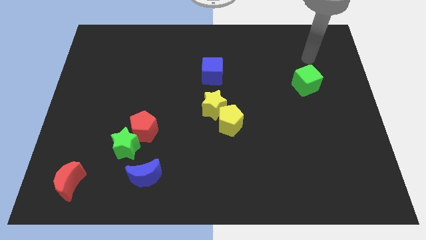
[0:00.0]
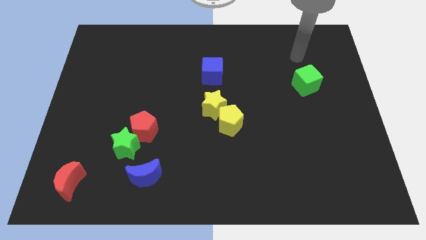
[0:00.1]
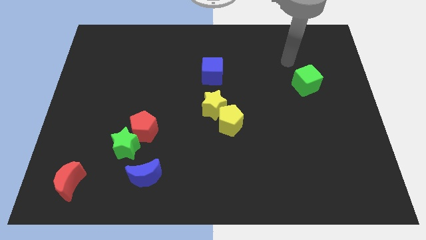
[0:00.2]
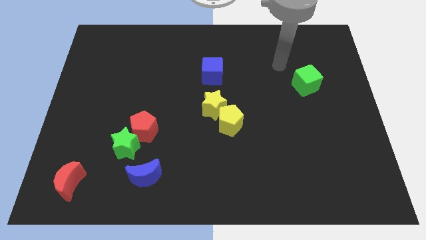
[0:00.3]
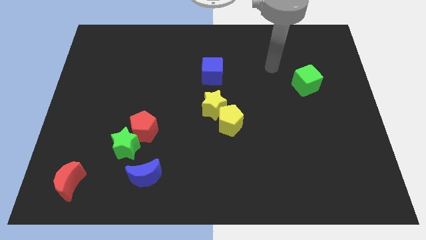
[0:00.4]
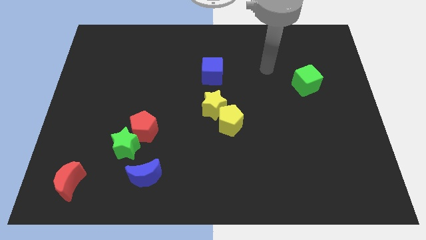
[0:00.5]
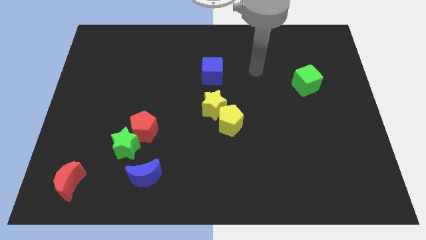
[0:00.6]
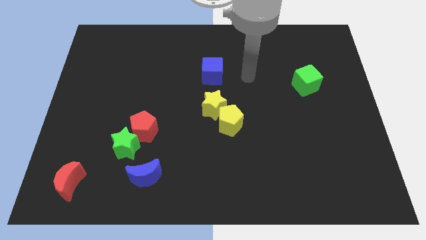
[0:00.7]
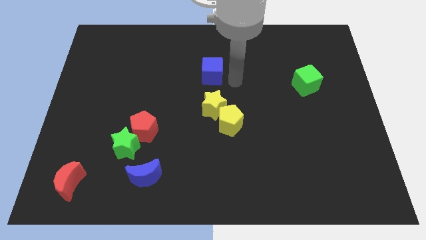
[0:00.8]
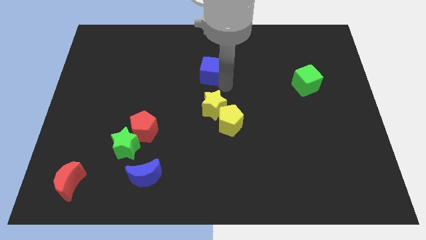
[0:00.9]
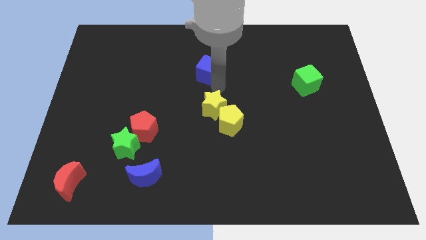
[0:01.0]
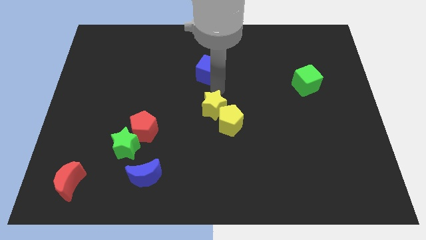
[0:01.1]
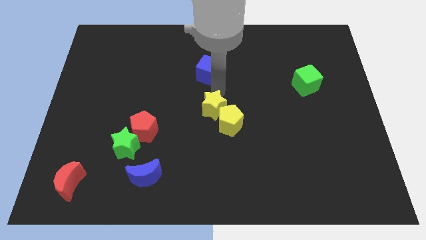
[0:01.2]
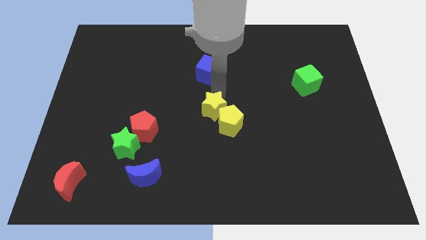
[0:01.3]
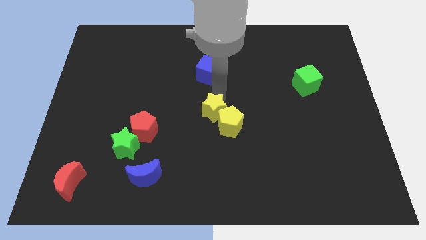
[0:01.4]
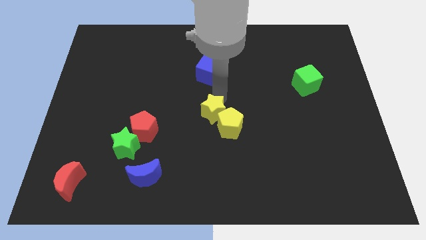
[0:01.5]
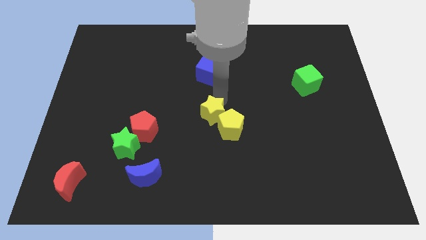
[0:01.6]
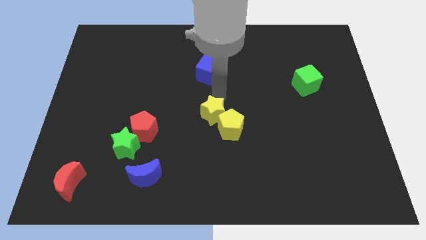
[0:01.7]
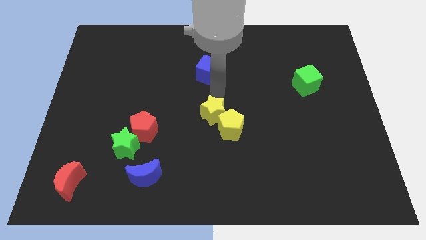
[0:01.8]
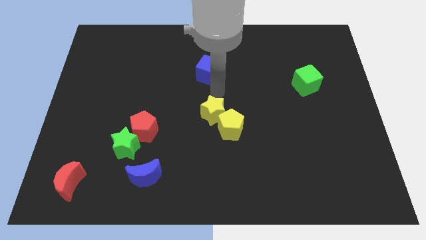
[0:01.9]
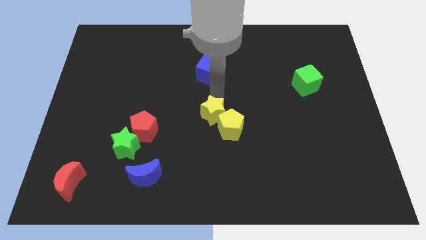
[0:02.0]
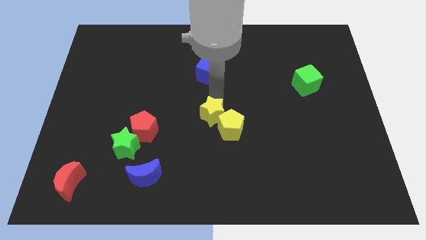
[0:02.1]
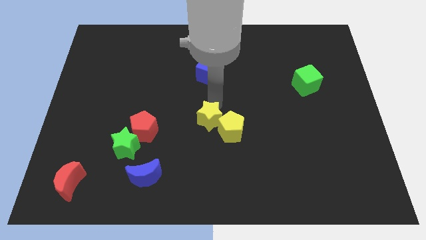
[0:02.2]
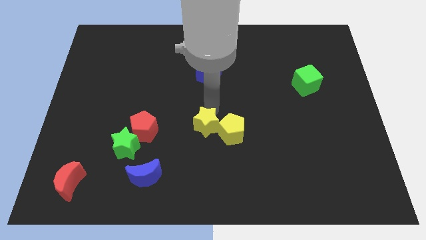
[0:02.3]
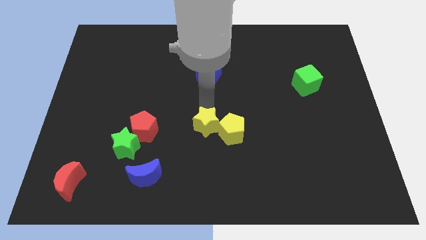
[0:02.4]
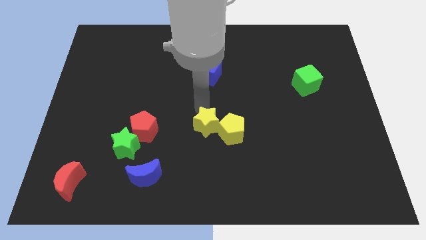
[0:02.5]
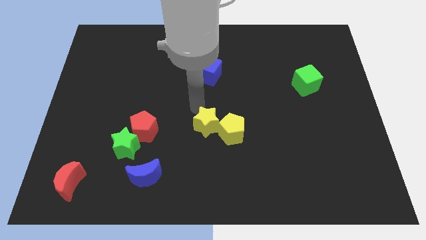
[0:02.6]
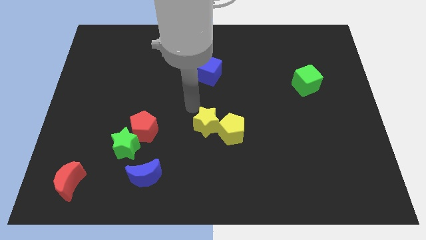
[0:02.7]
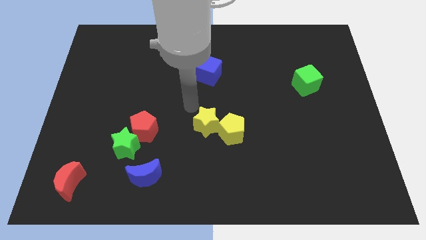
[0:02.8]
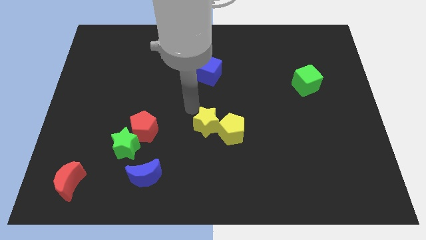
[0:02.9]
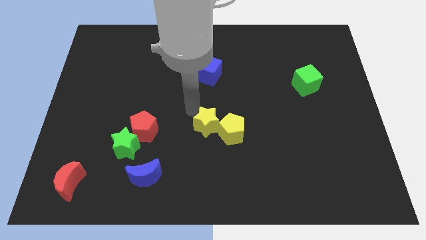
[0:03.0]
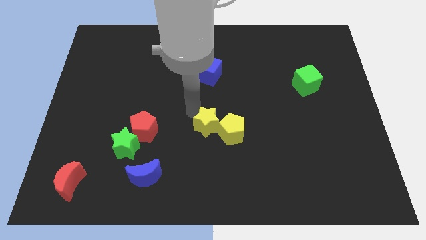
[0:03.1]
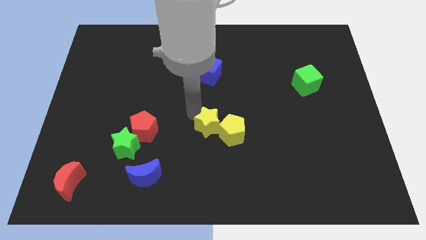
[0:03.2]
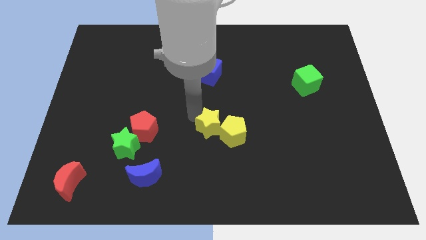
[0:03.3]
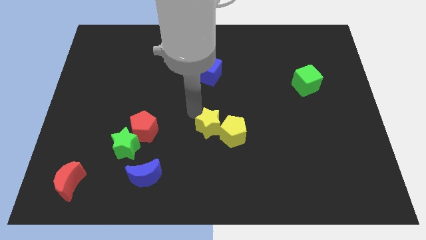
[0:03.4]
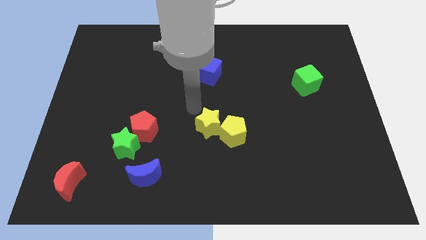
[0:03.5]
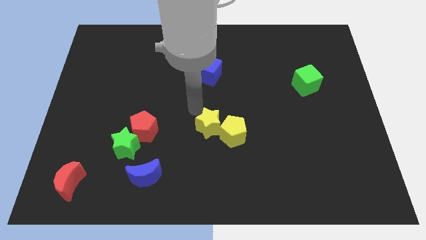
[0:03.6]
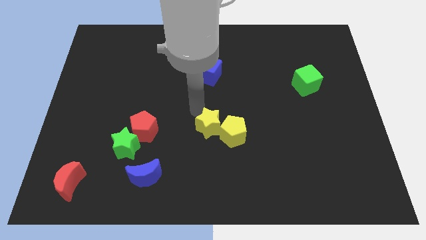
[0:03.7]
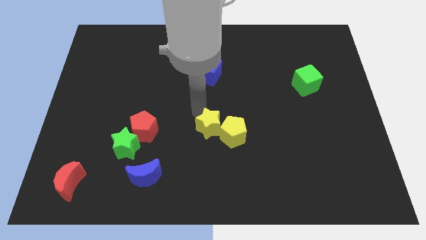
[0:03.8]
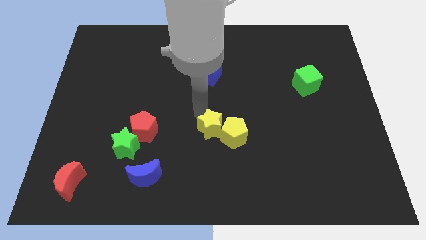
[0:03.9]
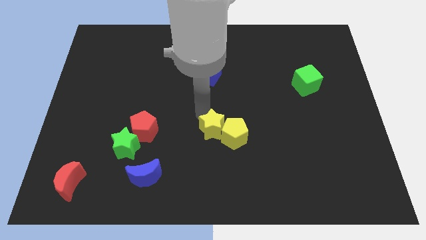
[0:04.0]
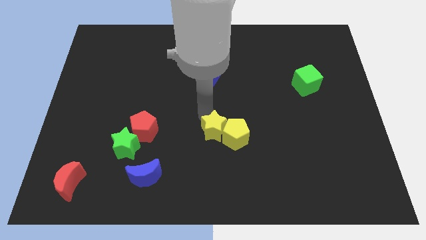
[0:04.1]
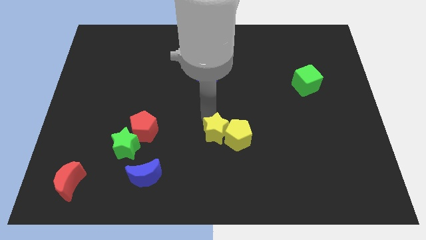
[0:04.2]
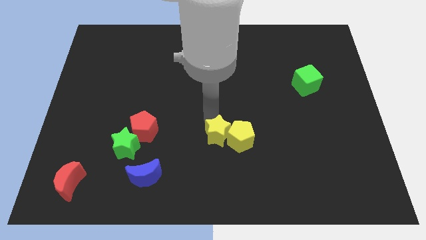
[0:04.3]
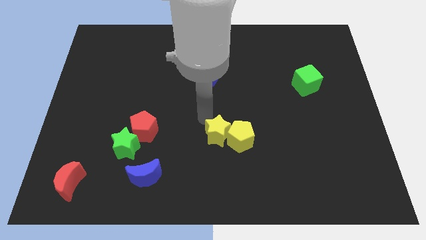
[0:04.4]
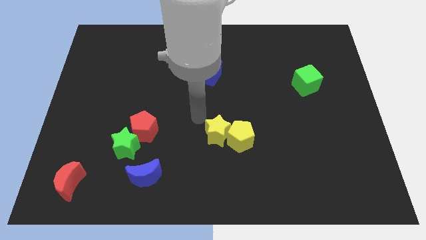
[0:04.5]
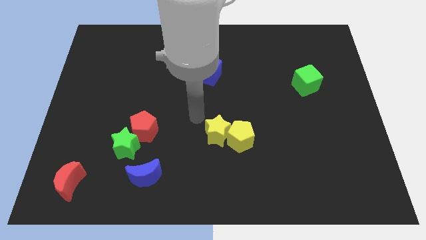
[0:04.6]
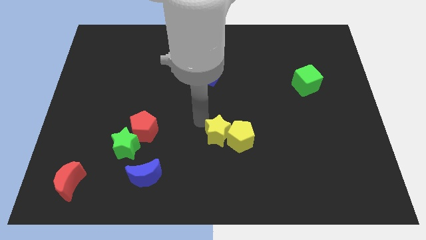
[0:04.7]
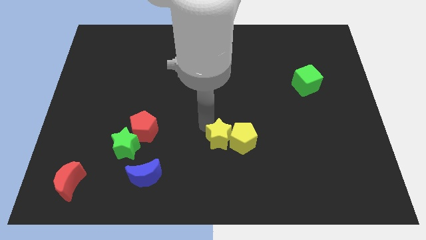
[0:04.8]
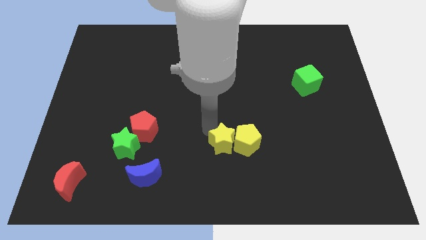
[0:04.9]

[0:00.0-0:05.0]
slightly slide the yellow star down and then to the right

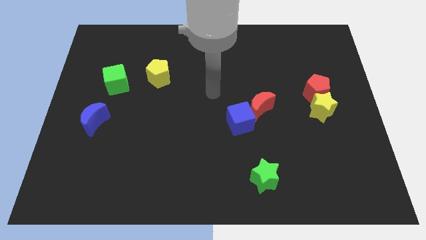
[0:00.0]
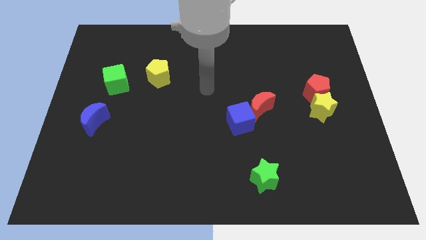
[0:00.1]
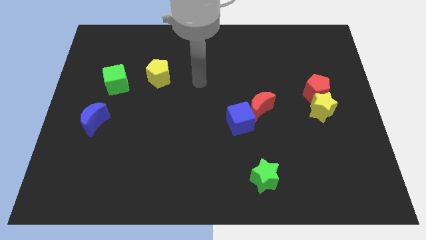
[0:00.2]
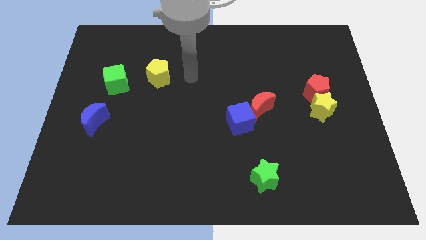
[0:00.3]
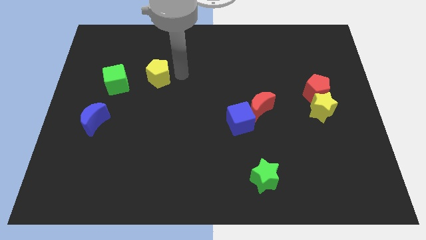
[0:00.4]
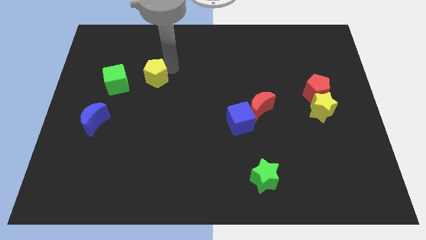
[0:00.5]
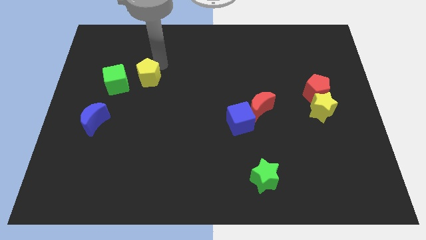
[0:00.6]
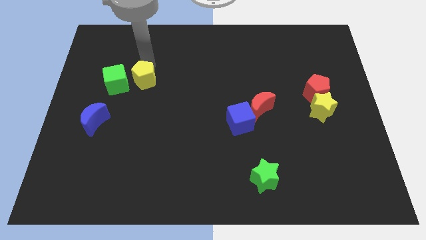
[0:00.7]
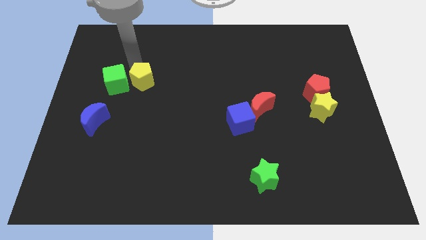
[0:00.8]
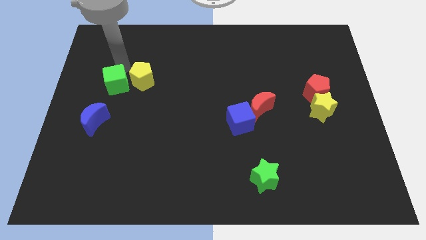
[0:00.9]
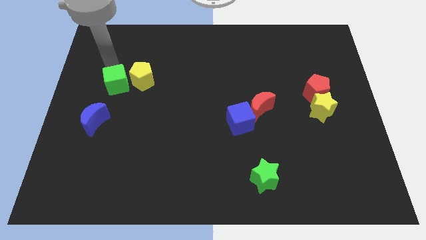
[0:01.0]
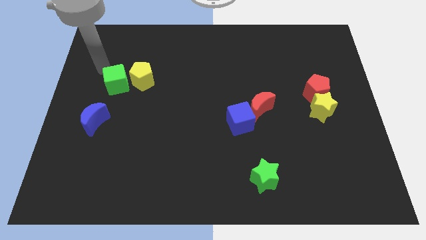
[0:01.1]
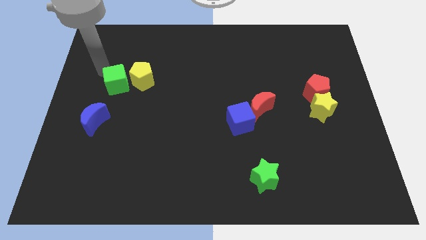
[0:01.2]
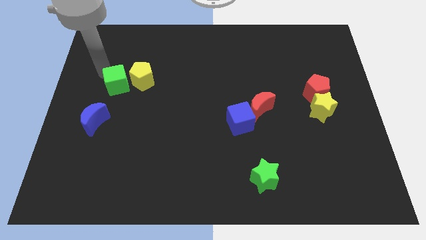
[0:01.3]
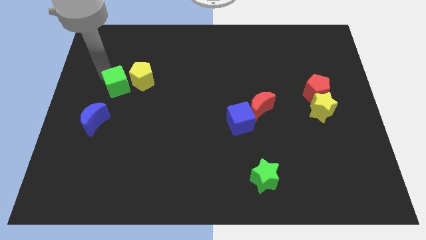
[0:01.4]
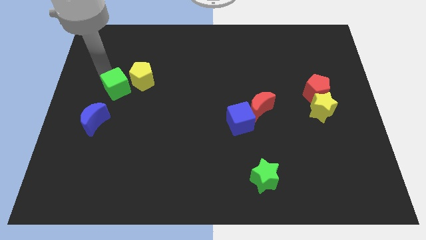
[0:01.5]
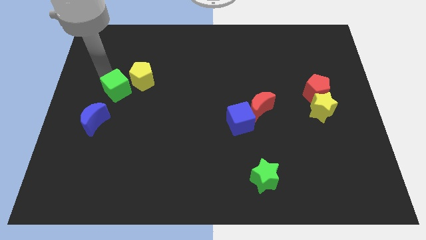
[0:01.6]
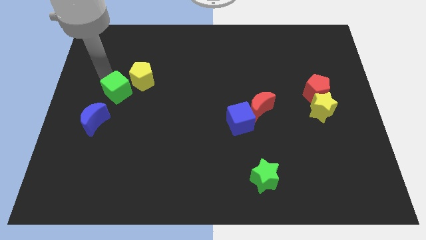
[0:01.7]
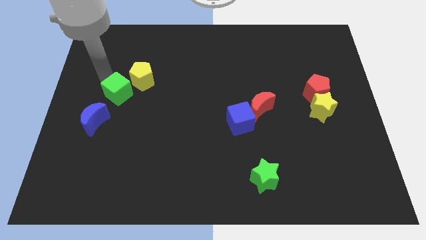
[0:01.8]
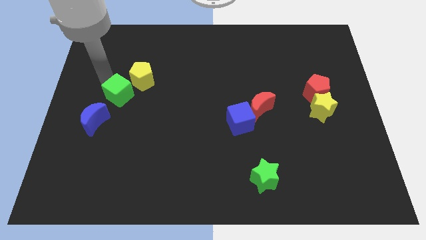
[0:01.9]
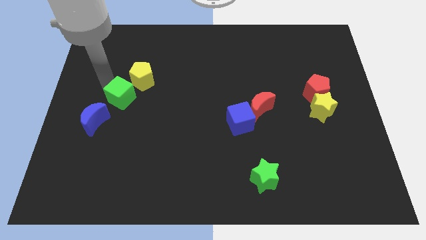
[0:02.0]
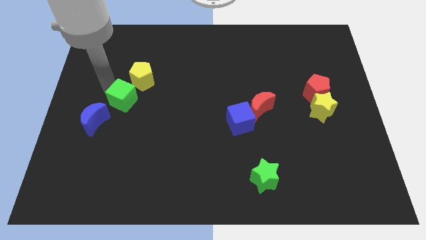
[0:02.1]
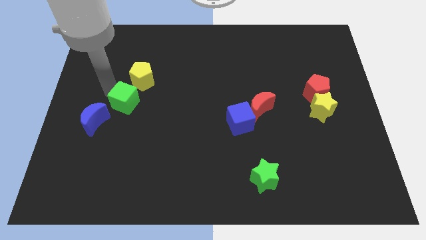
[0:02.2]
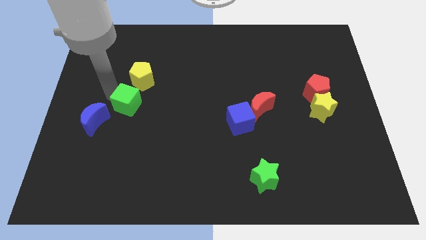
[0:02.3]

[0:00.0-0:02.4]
slide the green cube downwards and right diagonally slightly

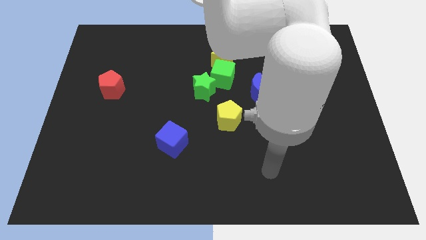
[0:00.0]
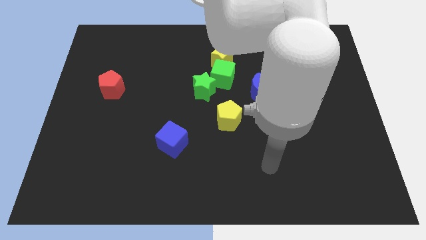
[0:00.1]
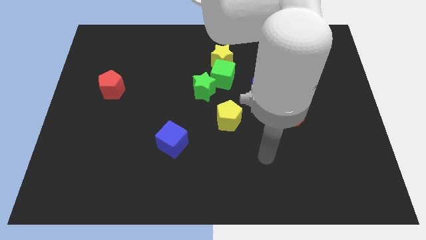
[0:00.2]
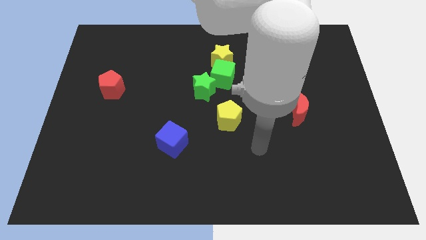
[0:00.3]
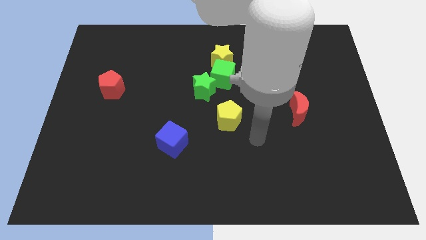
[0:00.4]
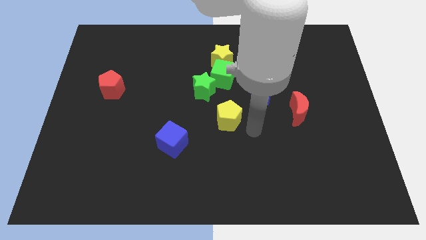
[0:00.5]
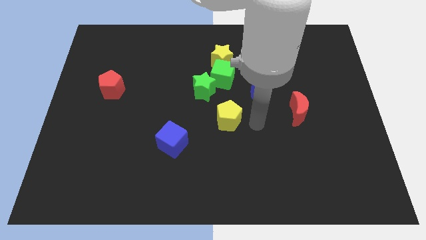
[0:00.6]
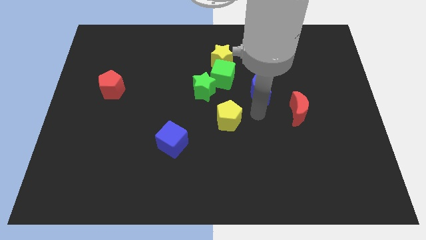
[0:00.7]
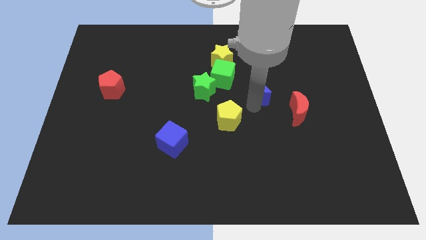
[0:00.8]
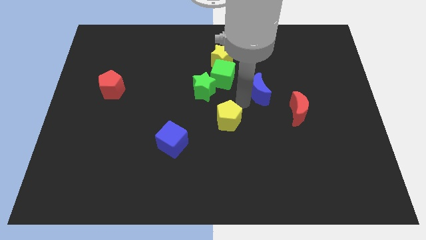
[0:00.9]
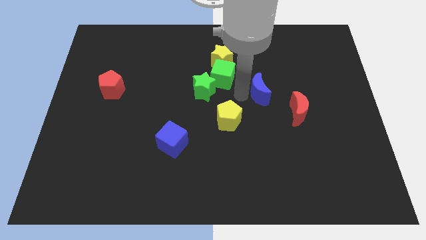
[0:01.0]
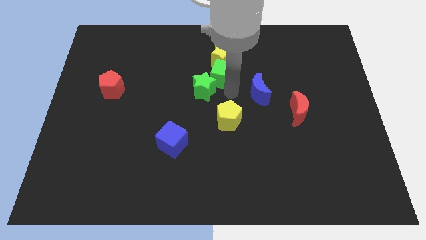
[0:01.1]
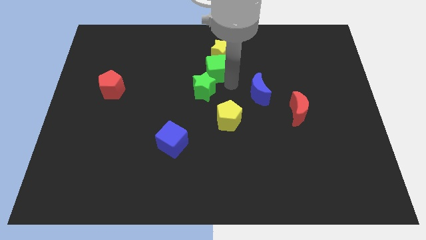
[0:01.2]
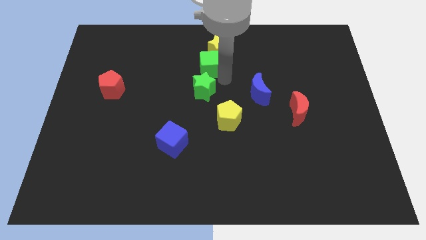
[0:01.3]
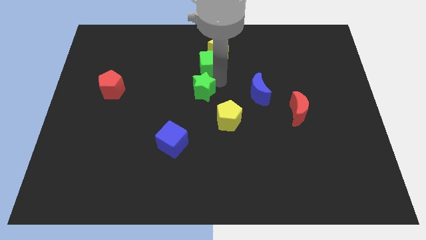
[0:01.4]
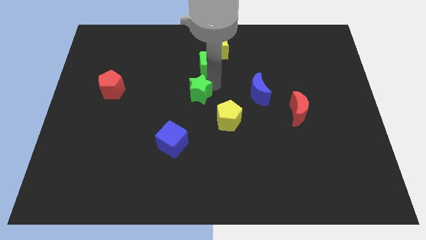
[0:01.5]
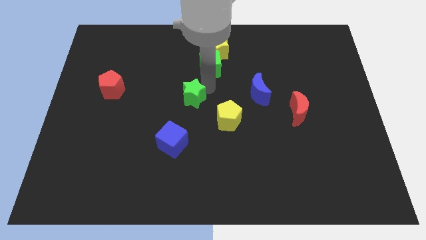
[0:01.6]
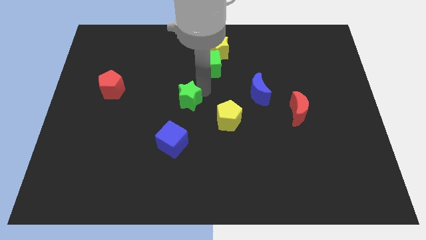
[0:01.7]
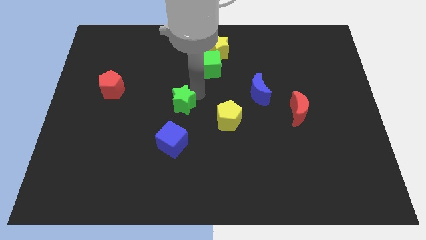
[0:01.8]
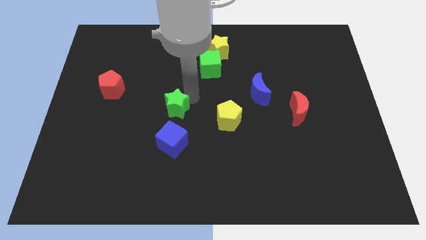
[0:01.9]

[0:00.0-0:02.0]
push the green star down and to the left a bit
